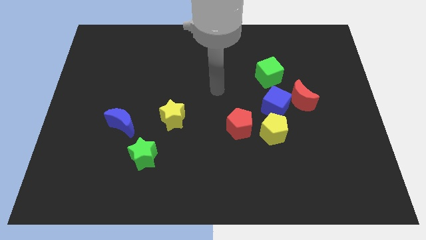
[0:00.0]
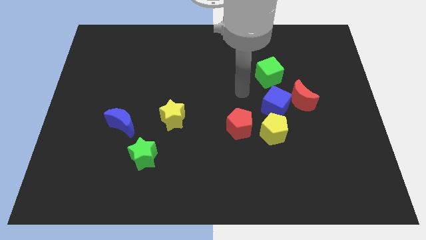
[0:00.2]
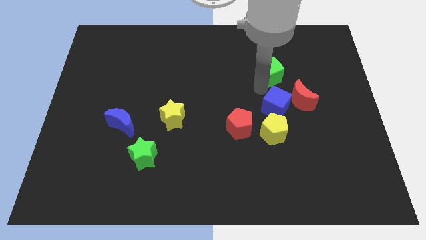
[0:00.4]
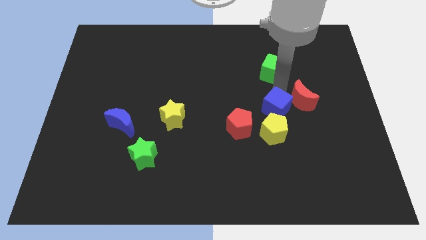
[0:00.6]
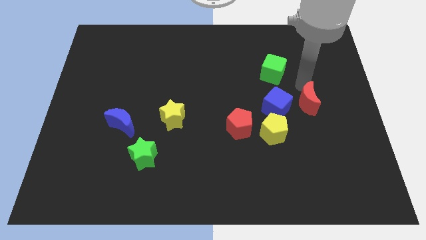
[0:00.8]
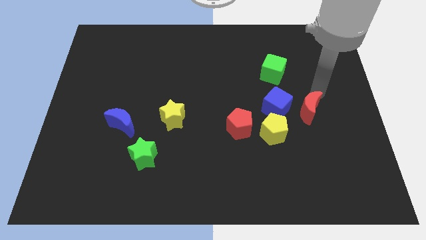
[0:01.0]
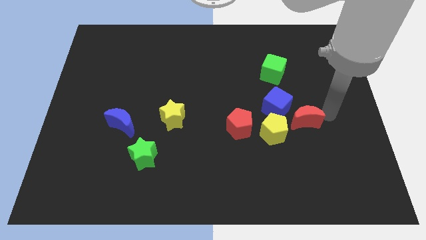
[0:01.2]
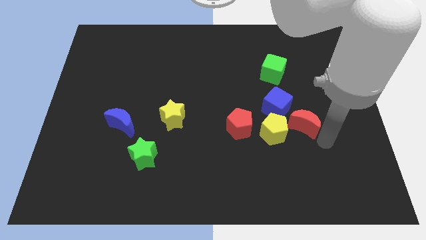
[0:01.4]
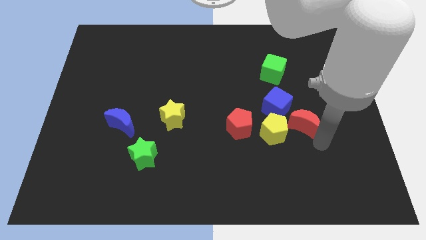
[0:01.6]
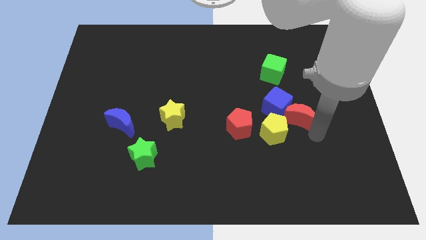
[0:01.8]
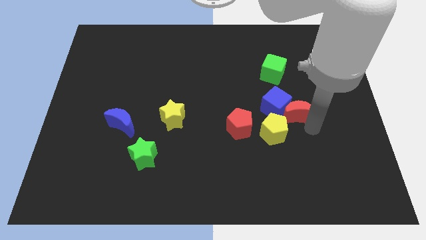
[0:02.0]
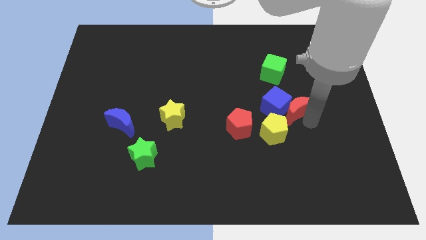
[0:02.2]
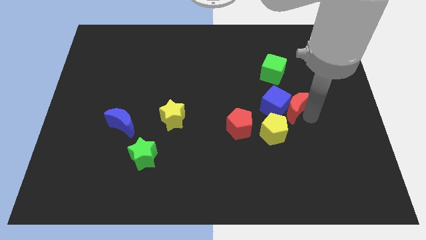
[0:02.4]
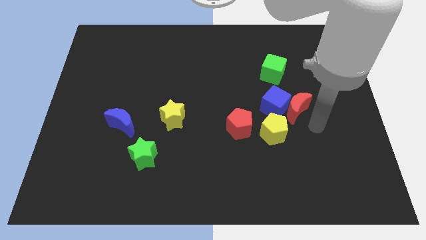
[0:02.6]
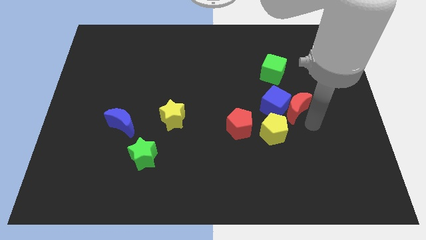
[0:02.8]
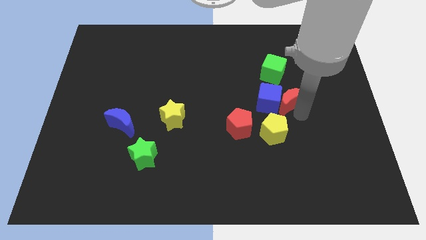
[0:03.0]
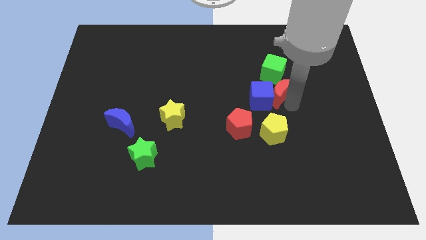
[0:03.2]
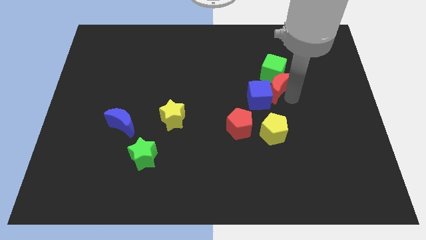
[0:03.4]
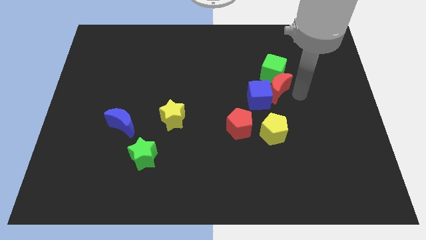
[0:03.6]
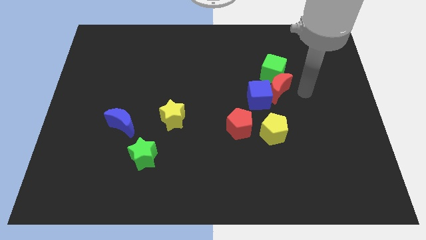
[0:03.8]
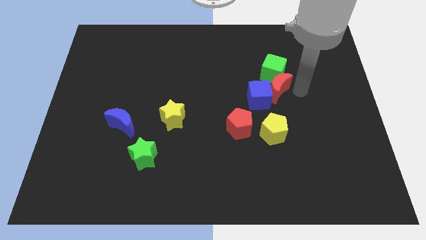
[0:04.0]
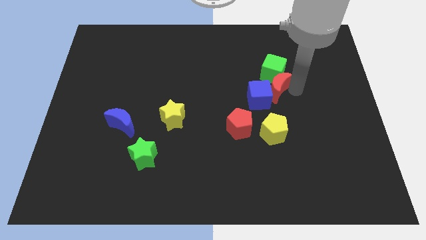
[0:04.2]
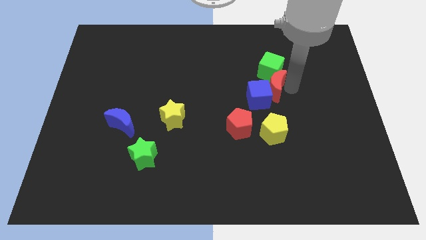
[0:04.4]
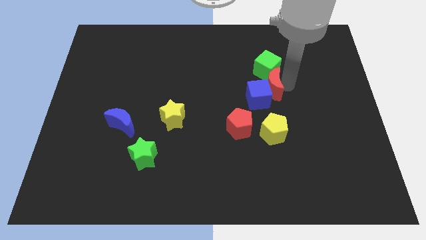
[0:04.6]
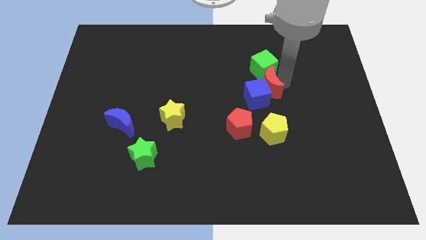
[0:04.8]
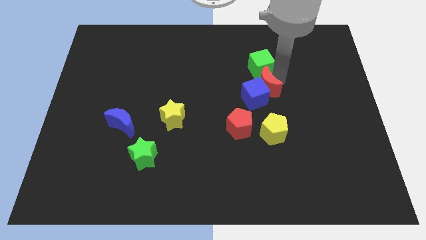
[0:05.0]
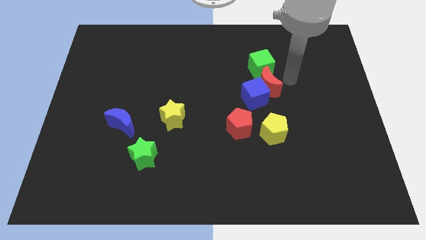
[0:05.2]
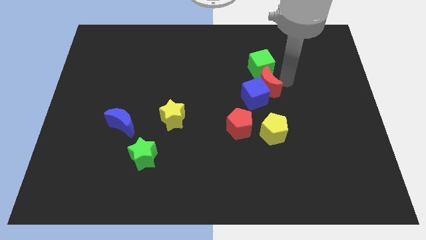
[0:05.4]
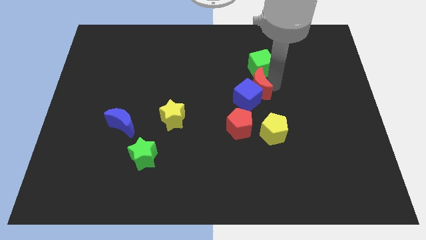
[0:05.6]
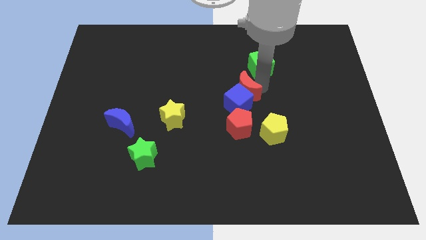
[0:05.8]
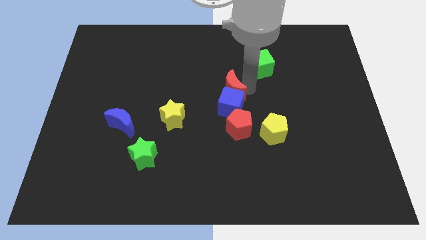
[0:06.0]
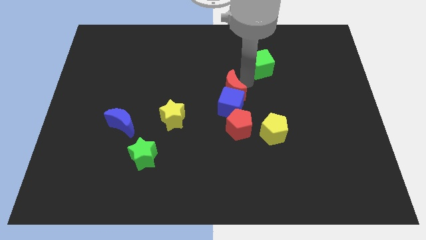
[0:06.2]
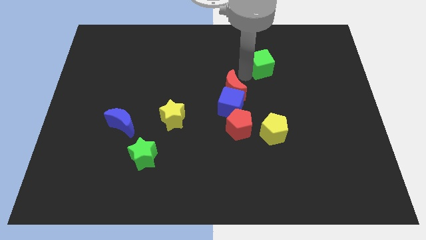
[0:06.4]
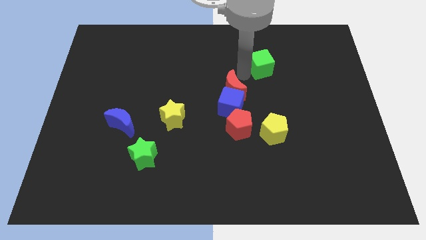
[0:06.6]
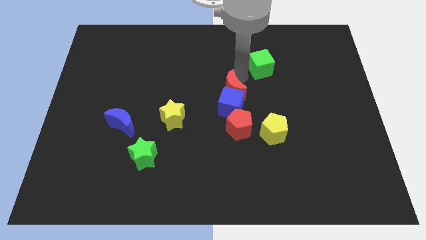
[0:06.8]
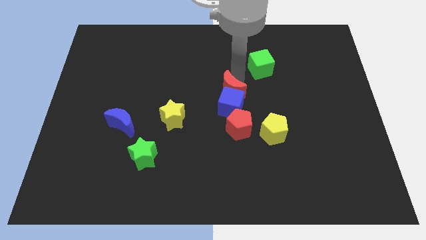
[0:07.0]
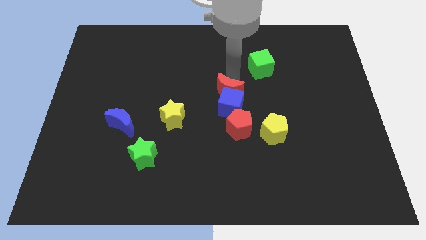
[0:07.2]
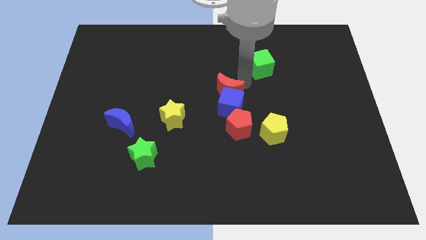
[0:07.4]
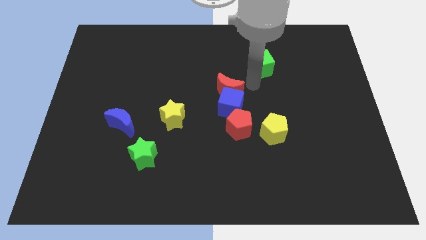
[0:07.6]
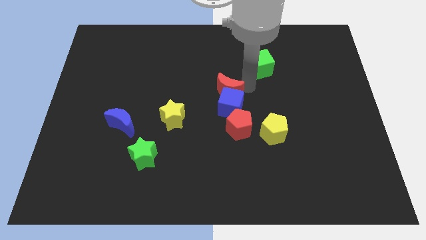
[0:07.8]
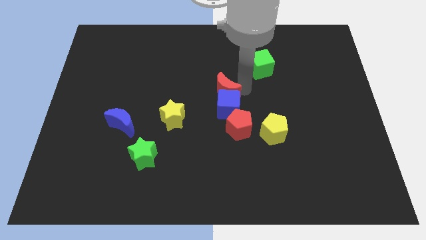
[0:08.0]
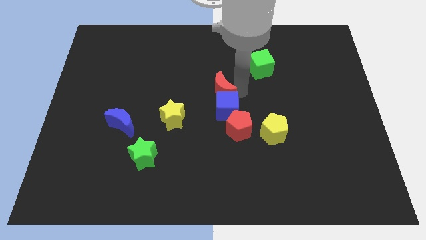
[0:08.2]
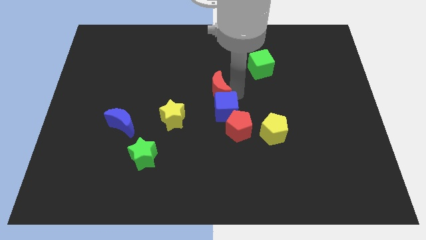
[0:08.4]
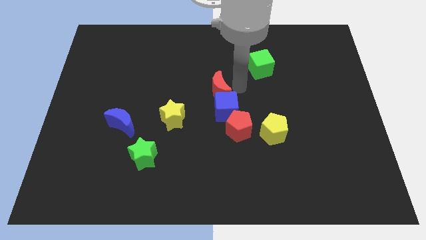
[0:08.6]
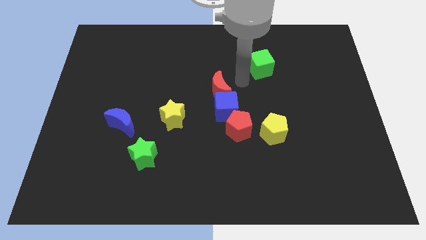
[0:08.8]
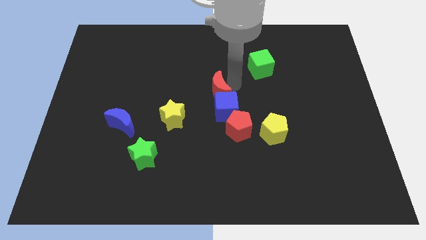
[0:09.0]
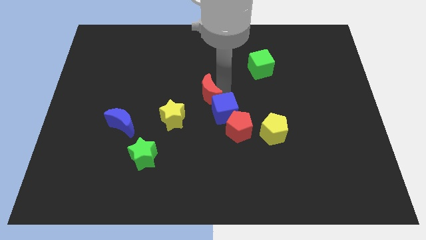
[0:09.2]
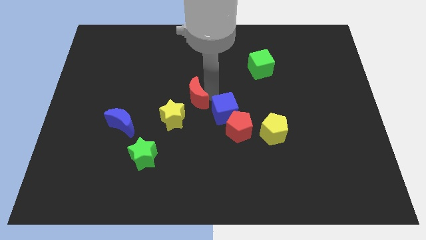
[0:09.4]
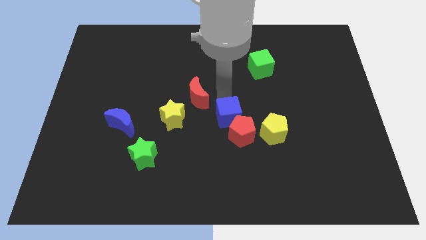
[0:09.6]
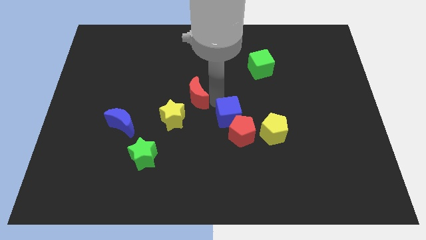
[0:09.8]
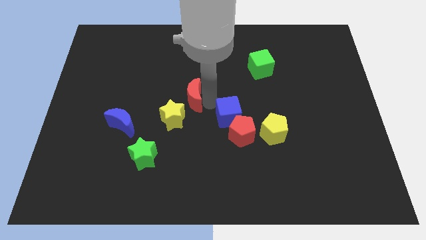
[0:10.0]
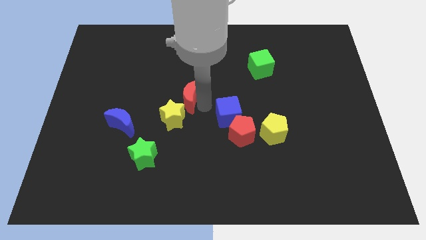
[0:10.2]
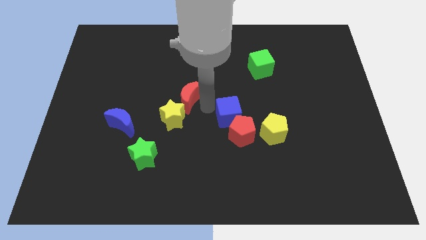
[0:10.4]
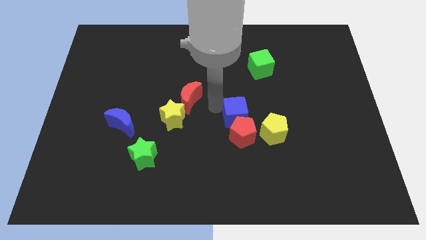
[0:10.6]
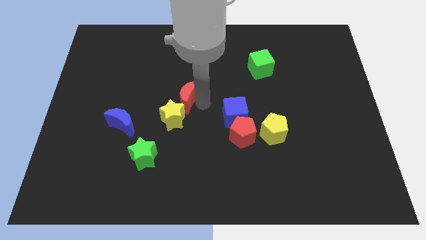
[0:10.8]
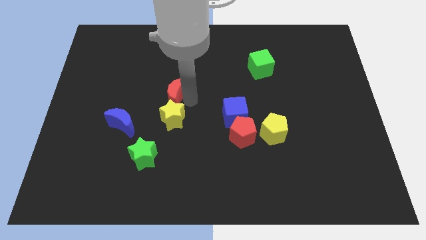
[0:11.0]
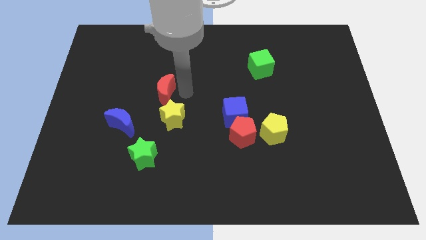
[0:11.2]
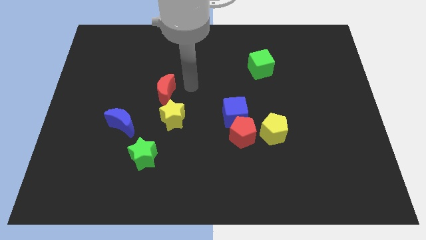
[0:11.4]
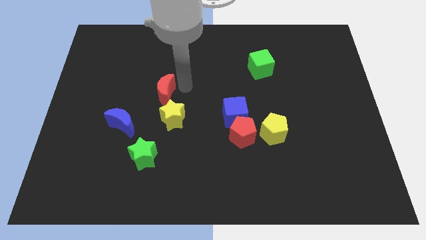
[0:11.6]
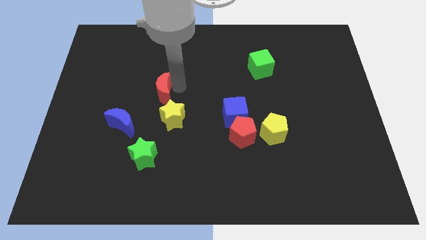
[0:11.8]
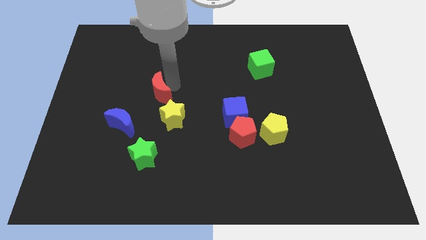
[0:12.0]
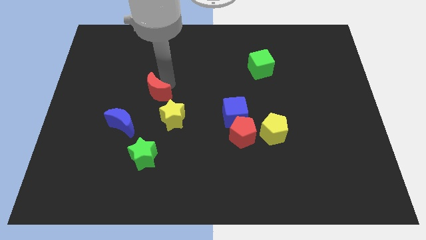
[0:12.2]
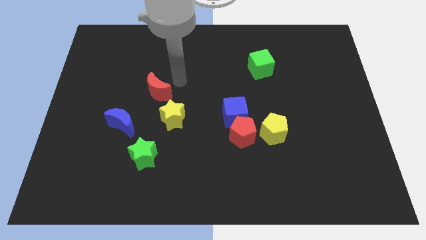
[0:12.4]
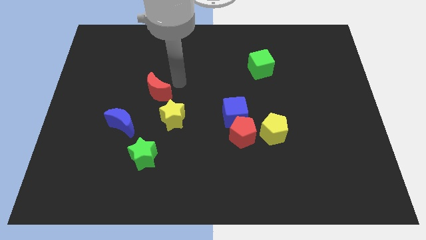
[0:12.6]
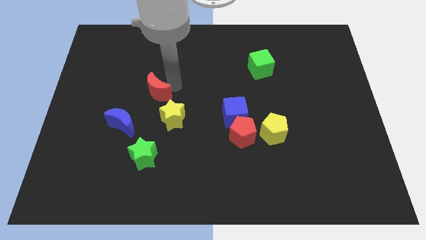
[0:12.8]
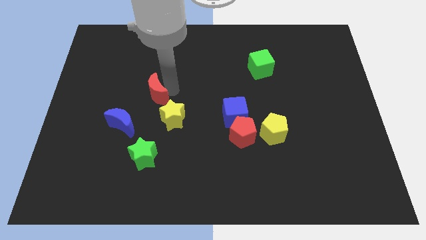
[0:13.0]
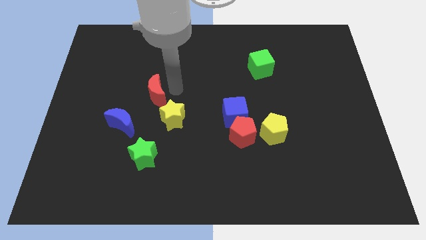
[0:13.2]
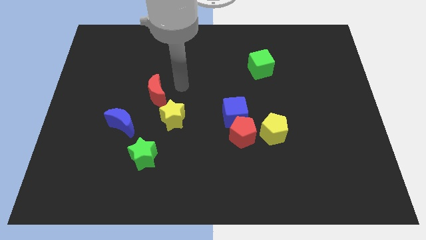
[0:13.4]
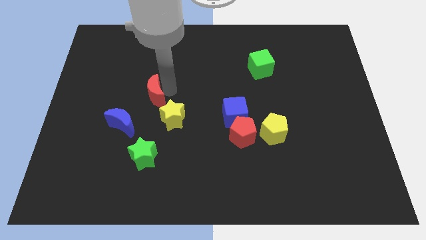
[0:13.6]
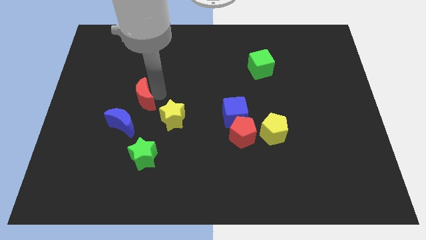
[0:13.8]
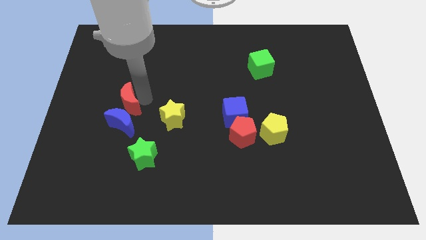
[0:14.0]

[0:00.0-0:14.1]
move the red moon to the left side of the yellow star
